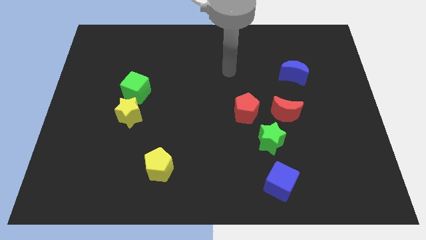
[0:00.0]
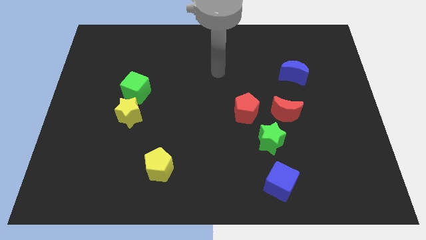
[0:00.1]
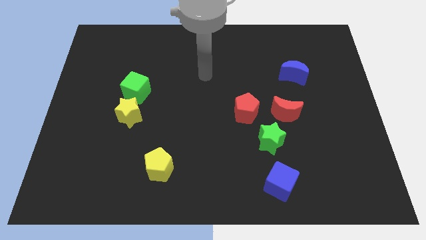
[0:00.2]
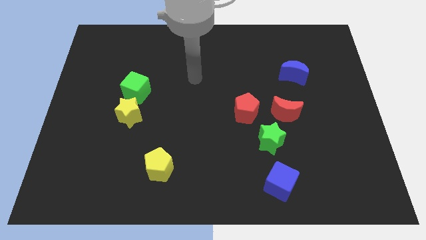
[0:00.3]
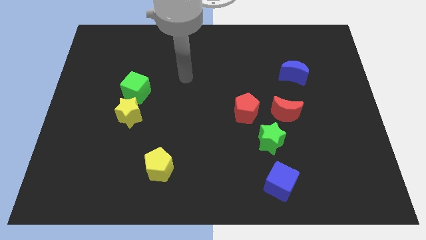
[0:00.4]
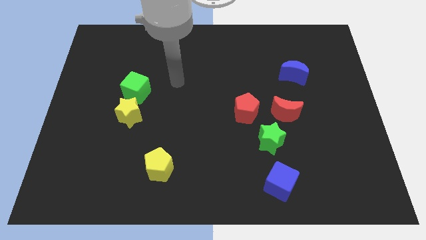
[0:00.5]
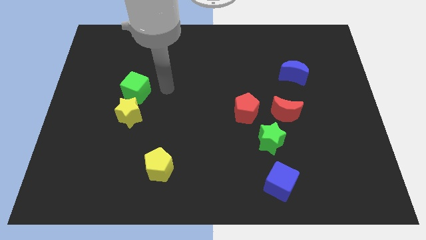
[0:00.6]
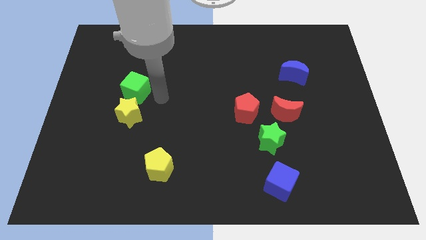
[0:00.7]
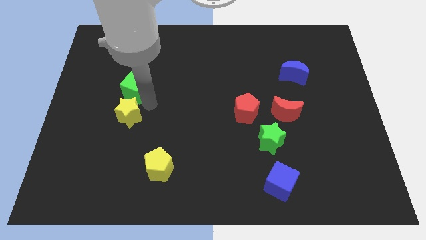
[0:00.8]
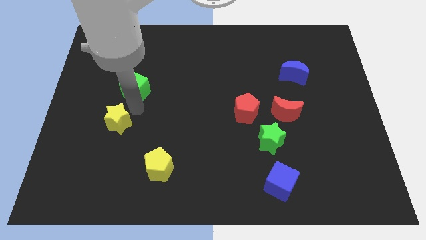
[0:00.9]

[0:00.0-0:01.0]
move the green cube away from the yellow star

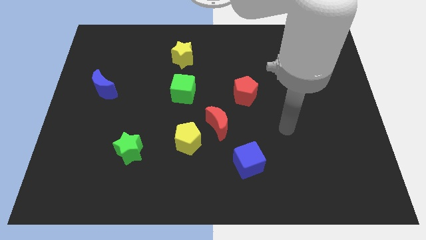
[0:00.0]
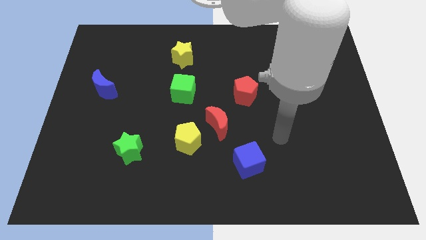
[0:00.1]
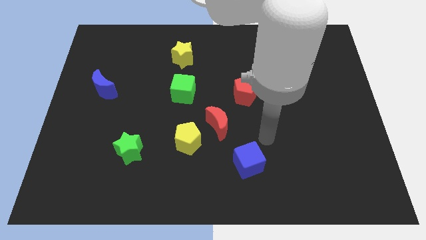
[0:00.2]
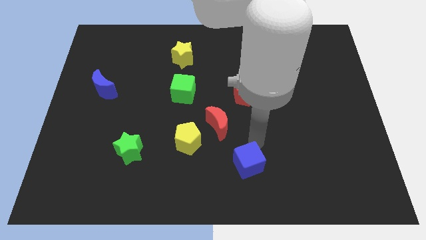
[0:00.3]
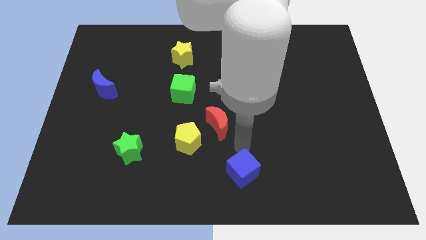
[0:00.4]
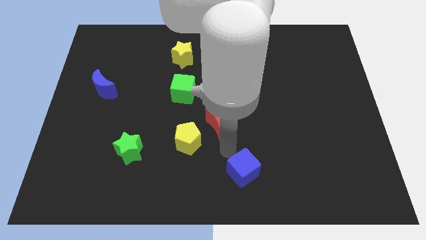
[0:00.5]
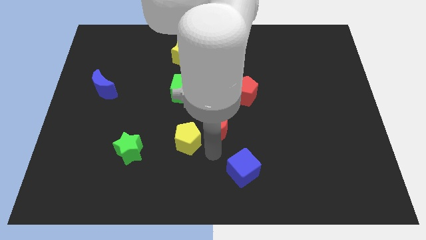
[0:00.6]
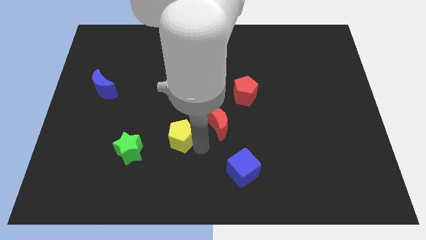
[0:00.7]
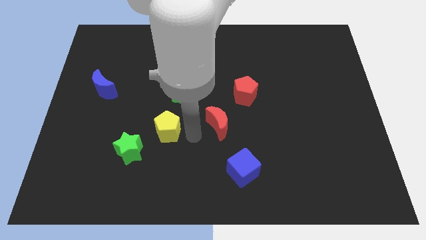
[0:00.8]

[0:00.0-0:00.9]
move the red moon away from the yellow pentagon

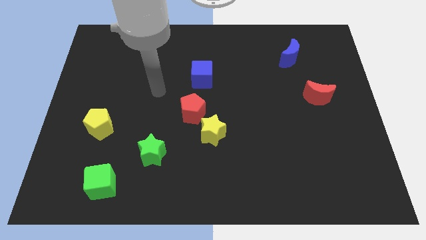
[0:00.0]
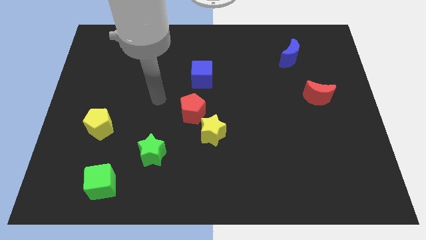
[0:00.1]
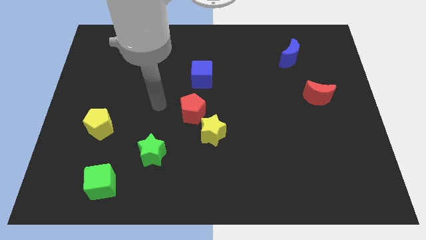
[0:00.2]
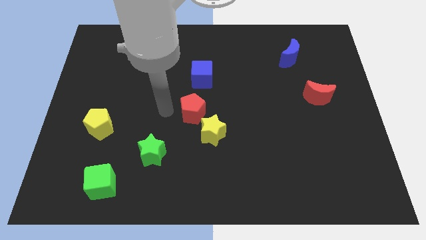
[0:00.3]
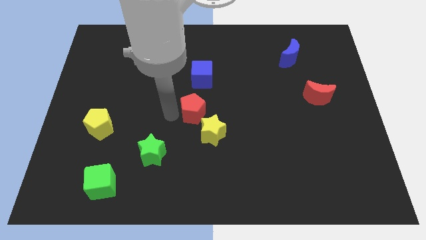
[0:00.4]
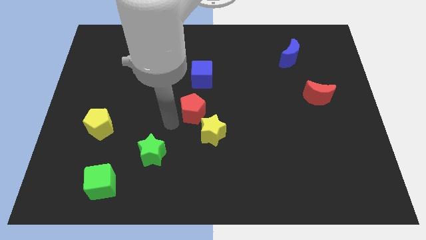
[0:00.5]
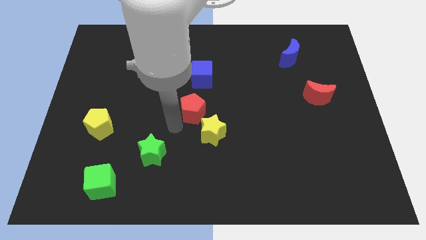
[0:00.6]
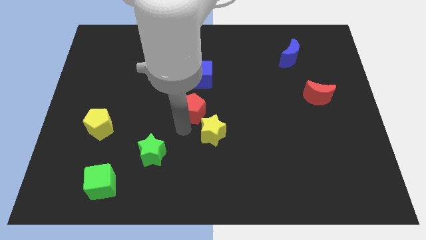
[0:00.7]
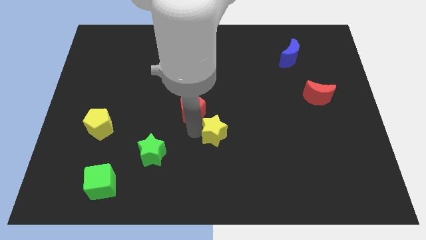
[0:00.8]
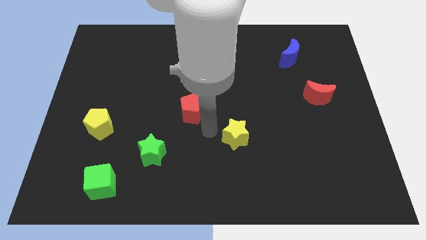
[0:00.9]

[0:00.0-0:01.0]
move the red pentagon away from the yellow star

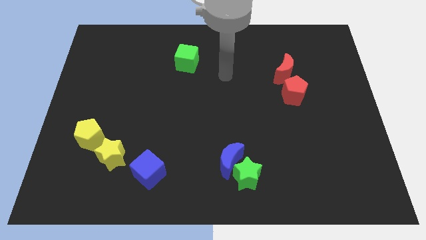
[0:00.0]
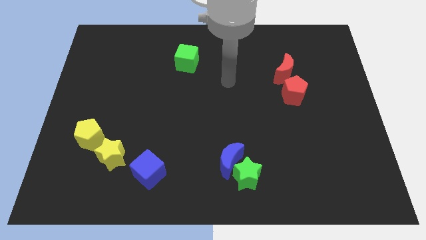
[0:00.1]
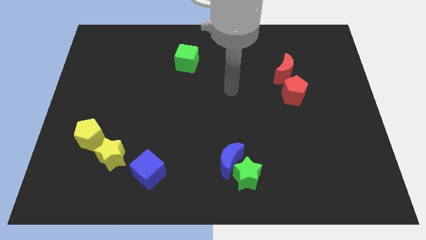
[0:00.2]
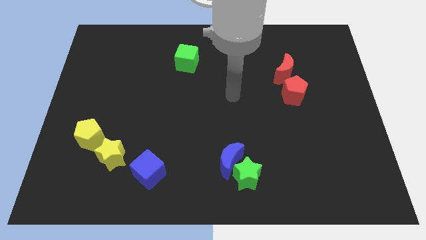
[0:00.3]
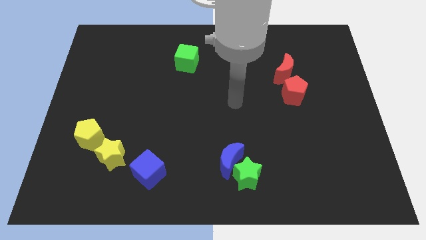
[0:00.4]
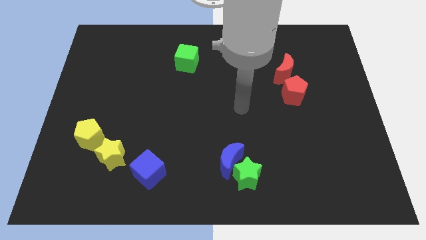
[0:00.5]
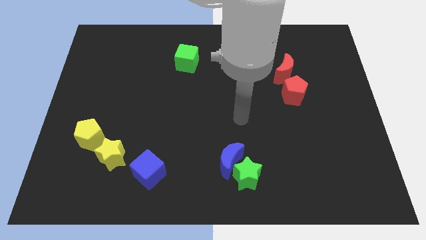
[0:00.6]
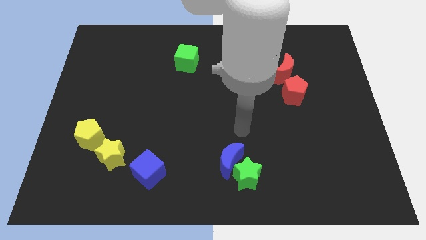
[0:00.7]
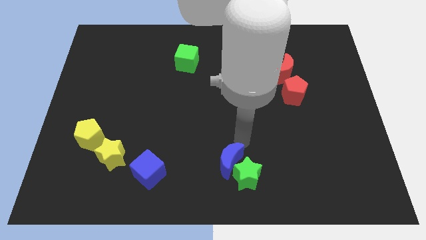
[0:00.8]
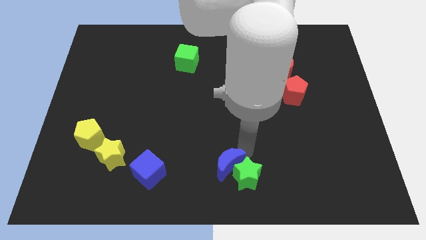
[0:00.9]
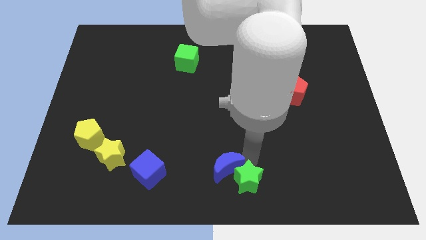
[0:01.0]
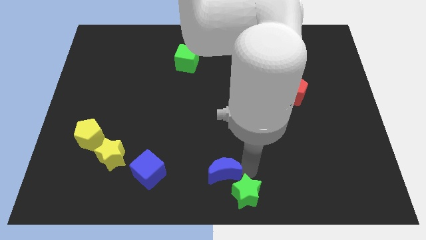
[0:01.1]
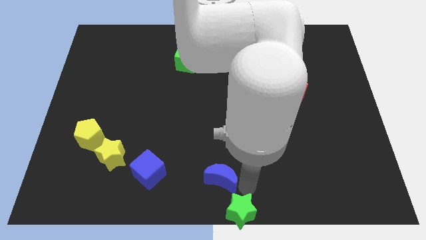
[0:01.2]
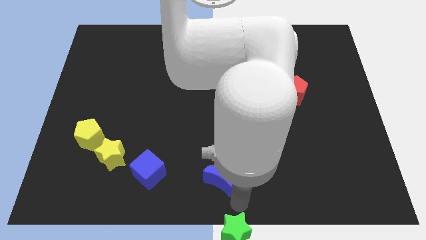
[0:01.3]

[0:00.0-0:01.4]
separate the blue moon from the green star

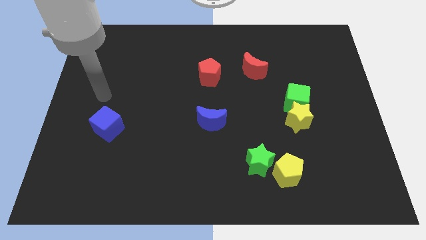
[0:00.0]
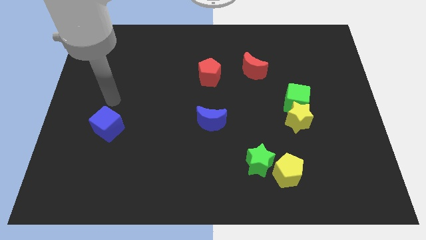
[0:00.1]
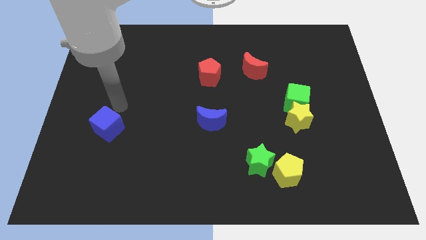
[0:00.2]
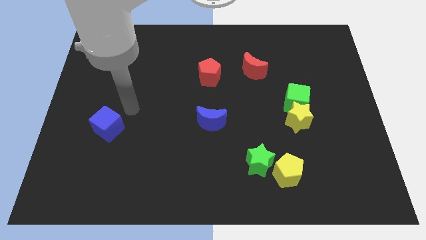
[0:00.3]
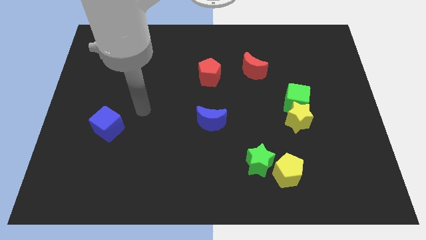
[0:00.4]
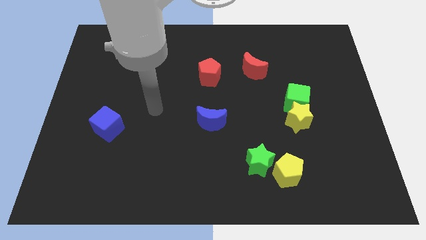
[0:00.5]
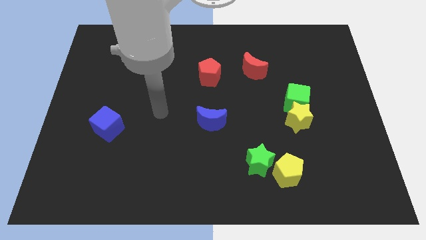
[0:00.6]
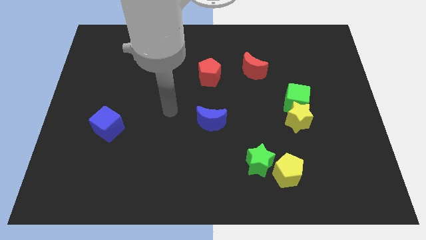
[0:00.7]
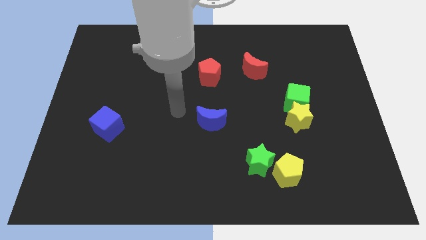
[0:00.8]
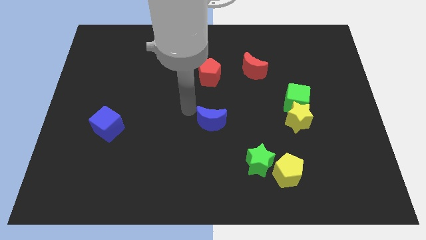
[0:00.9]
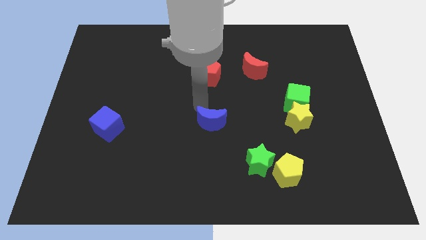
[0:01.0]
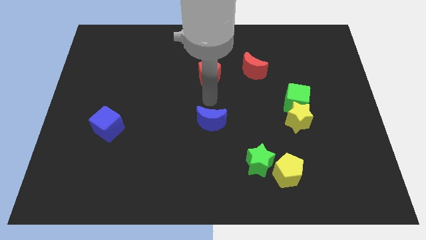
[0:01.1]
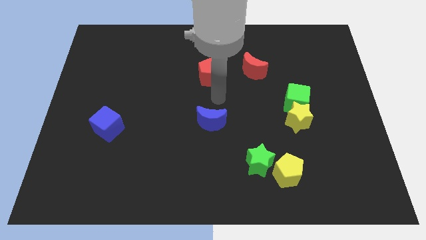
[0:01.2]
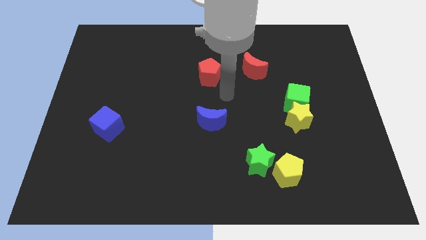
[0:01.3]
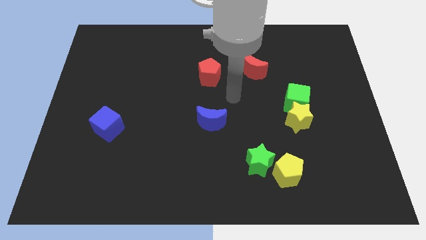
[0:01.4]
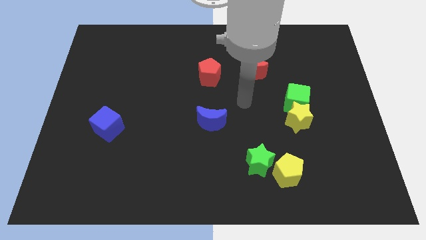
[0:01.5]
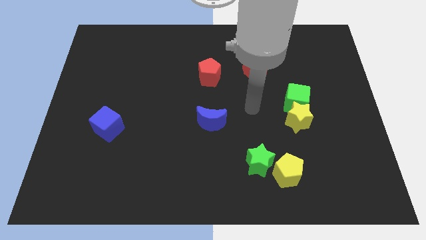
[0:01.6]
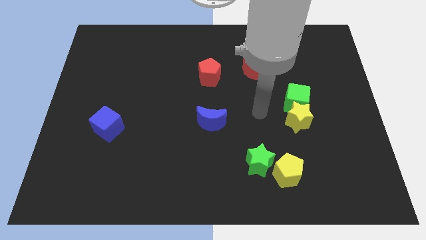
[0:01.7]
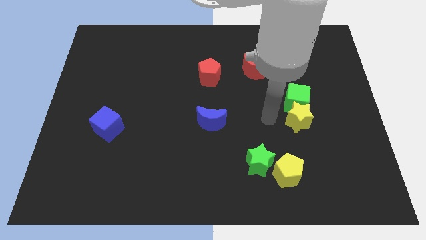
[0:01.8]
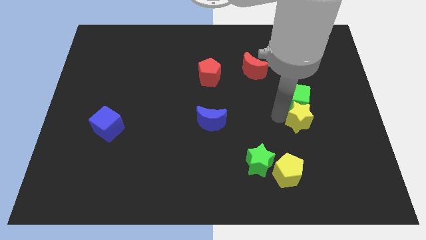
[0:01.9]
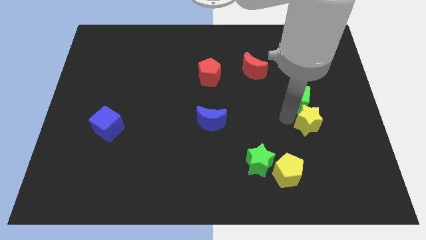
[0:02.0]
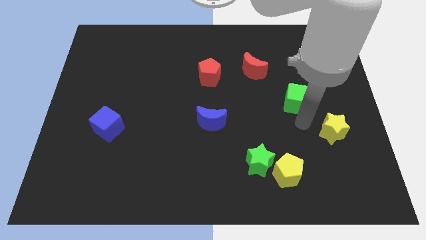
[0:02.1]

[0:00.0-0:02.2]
separate the green cube from the yellow star

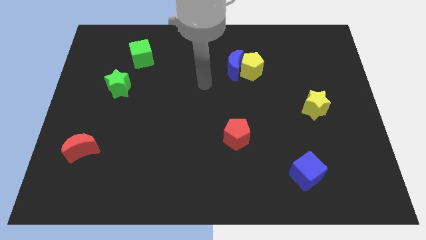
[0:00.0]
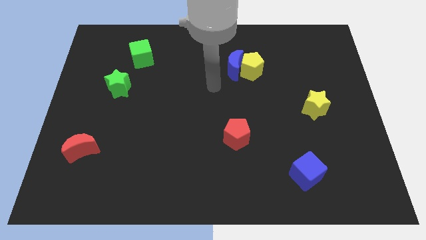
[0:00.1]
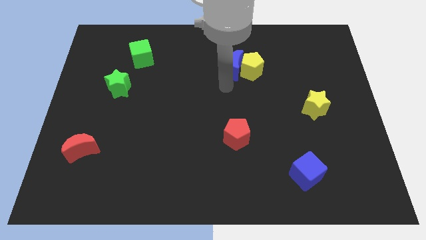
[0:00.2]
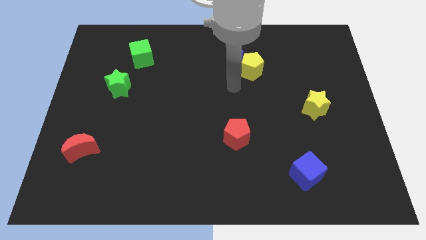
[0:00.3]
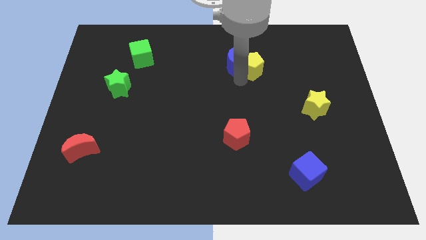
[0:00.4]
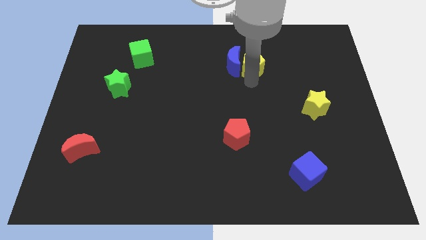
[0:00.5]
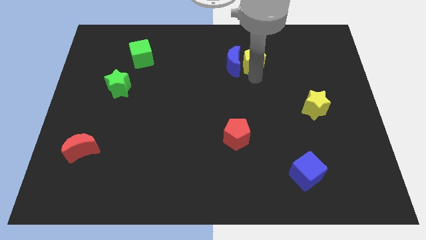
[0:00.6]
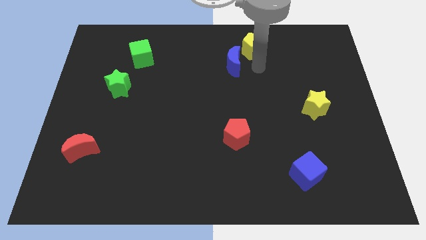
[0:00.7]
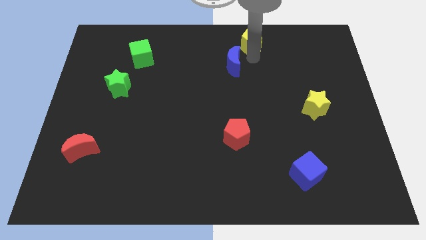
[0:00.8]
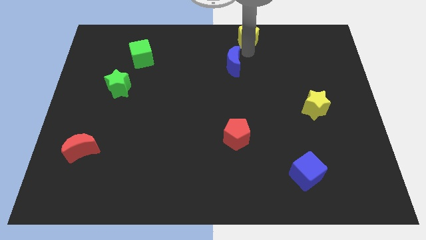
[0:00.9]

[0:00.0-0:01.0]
pull the blue moon apart from the yellow pentagon

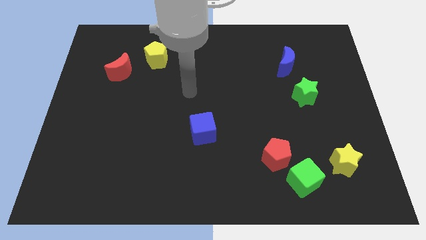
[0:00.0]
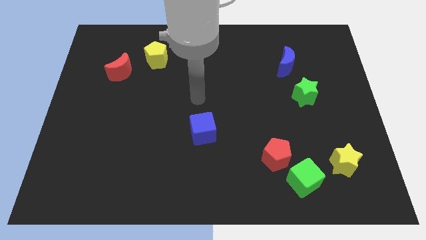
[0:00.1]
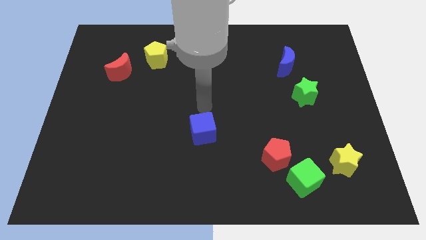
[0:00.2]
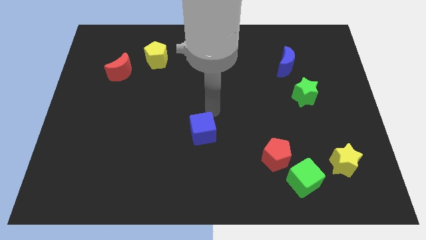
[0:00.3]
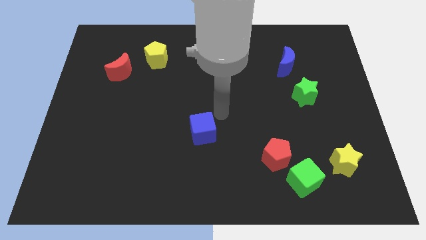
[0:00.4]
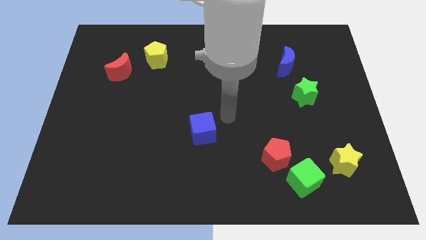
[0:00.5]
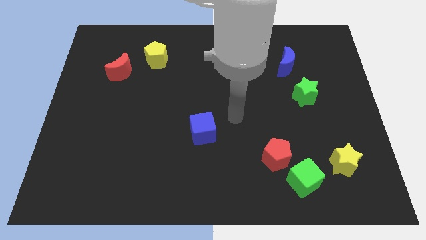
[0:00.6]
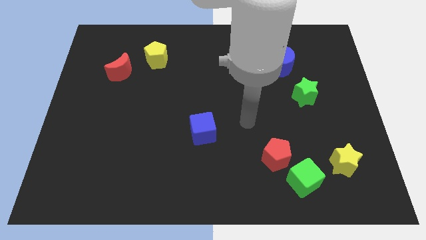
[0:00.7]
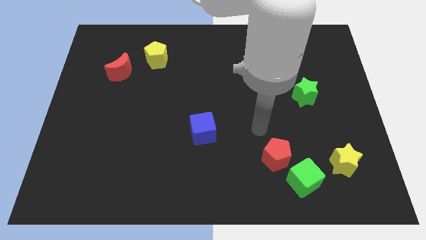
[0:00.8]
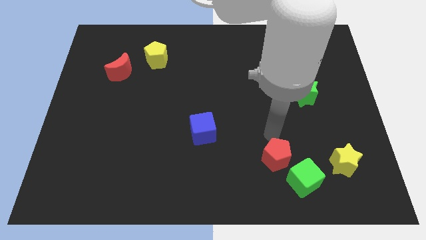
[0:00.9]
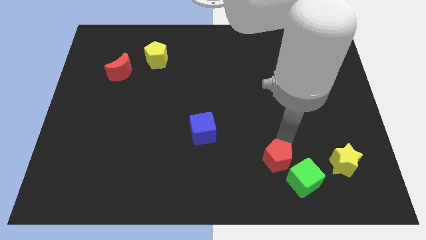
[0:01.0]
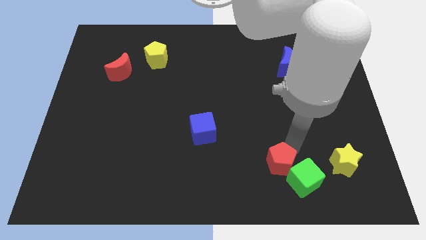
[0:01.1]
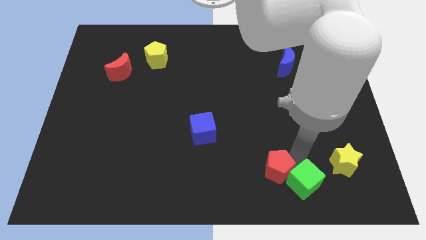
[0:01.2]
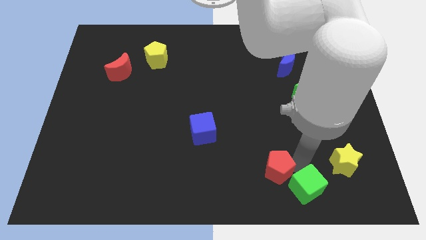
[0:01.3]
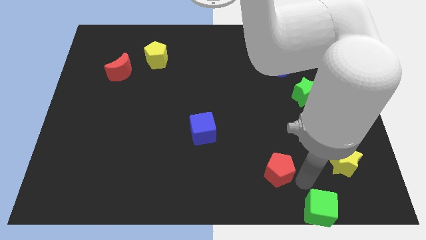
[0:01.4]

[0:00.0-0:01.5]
pull the red pentagon apart from the green cube

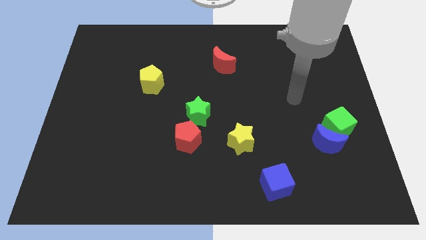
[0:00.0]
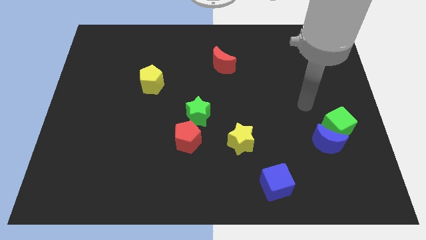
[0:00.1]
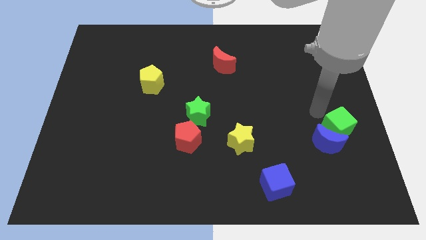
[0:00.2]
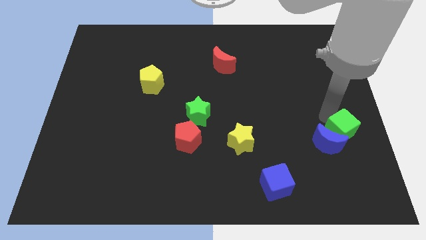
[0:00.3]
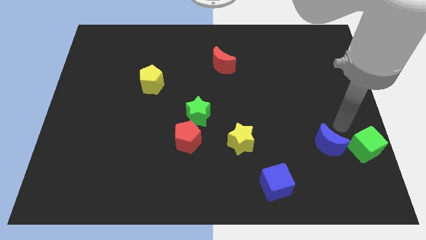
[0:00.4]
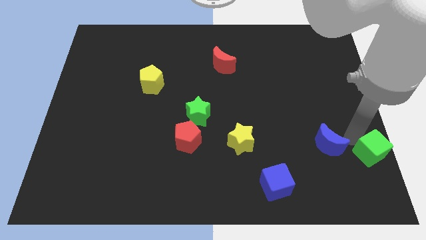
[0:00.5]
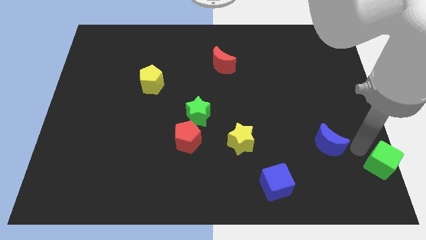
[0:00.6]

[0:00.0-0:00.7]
separate the blue moon from the green cube
